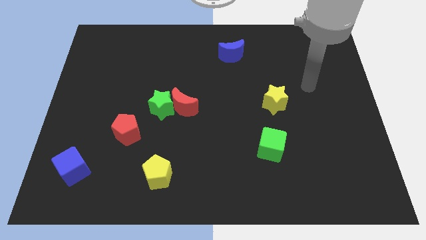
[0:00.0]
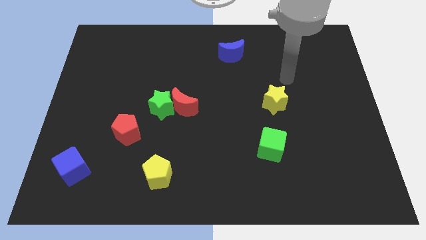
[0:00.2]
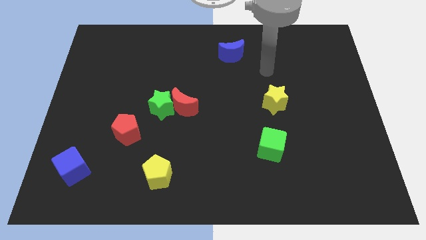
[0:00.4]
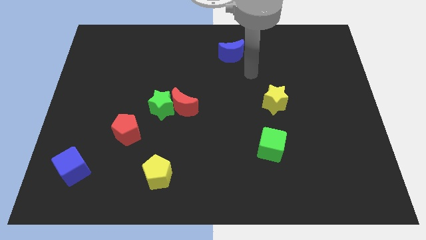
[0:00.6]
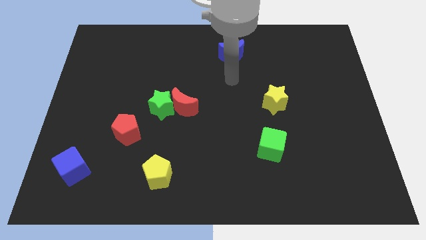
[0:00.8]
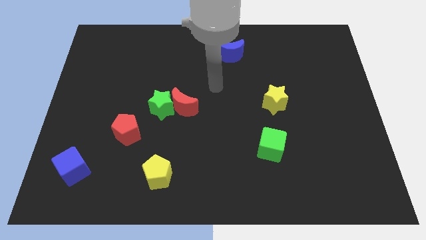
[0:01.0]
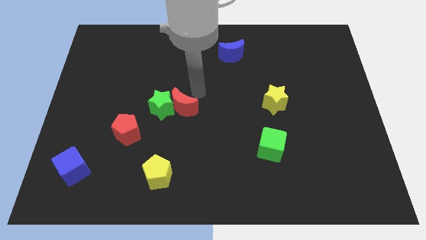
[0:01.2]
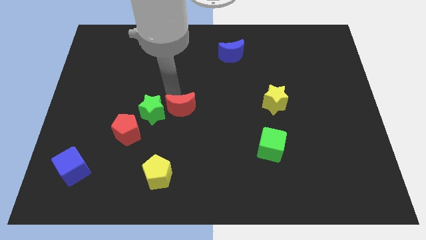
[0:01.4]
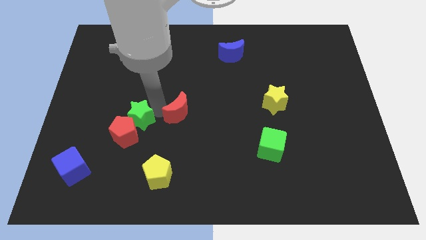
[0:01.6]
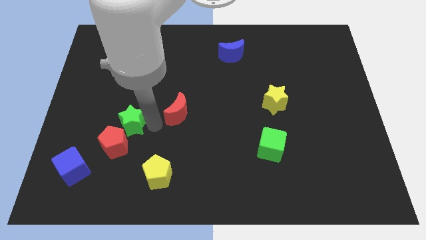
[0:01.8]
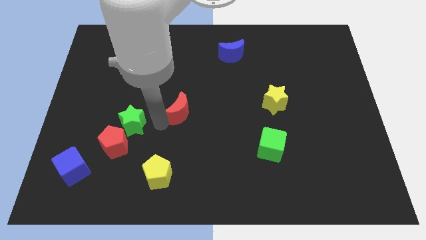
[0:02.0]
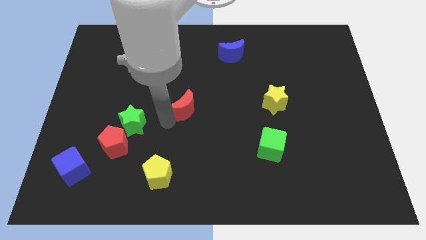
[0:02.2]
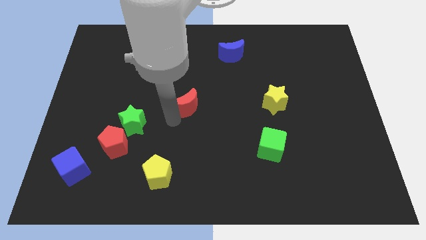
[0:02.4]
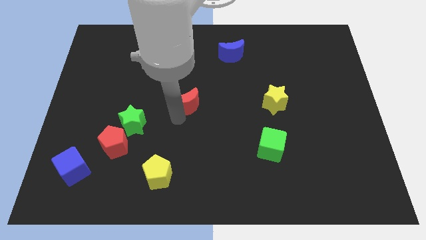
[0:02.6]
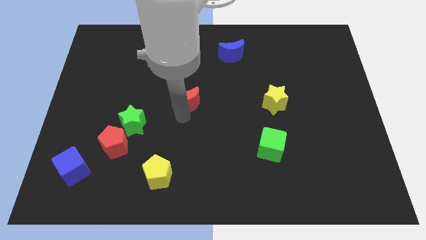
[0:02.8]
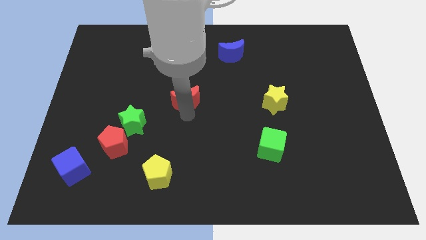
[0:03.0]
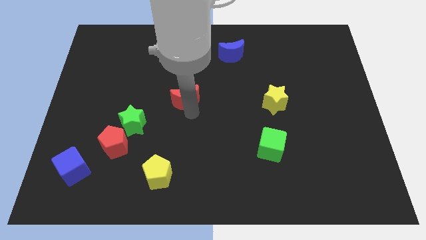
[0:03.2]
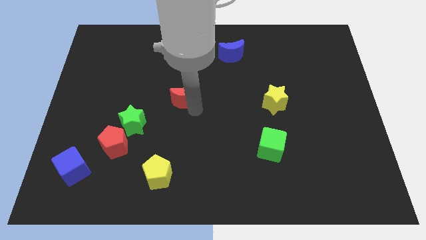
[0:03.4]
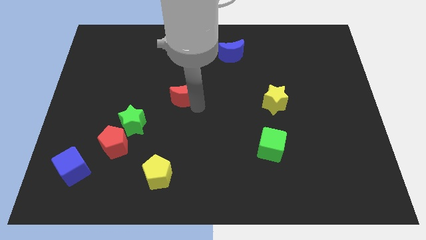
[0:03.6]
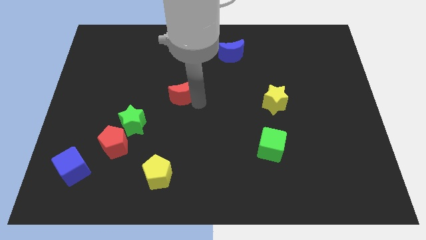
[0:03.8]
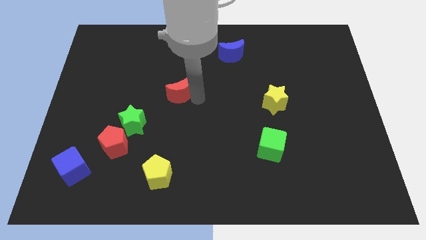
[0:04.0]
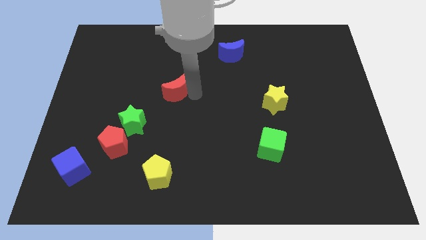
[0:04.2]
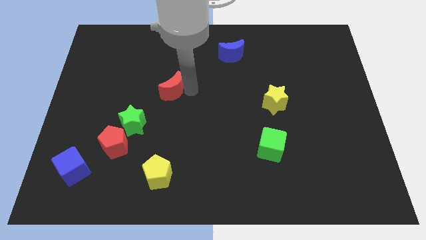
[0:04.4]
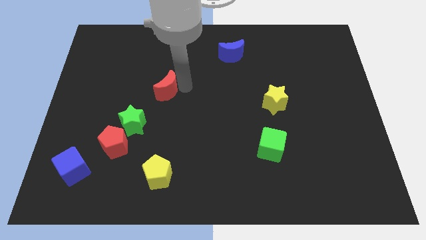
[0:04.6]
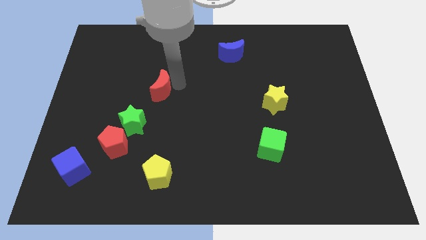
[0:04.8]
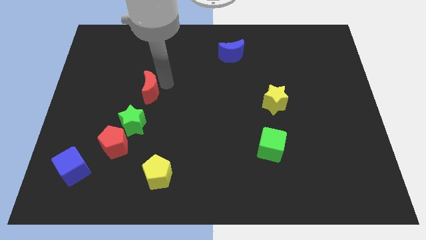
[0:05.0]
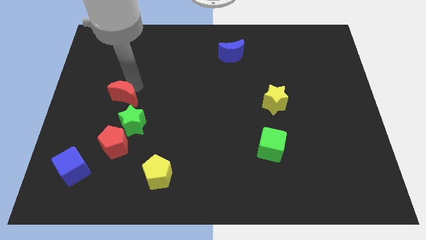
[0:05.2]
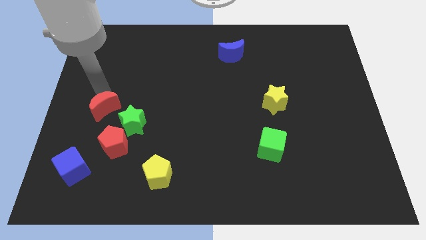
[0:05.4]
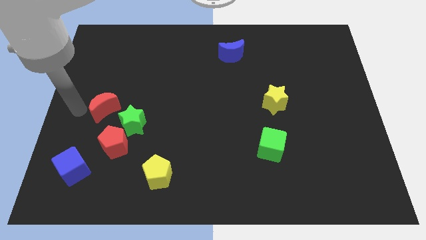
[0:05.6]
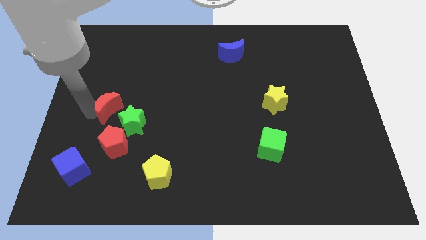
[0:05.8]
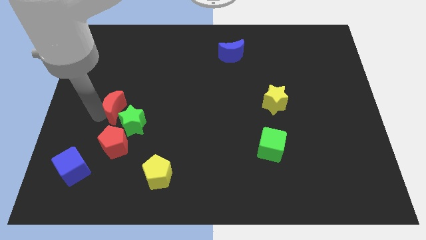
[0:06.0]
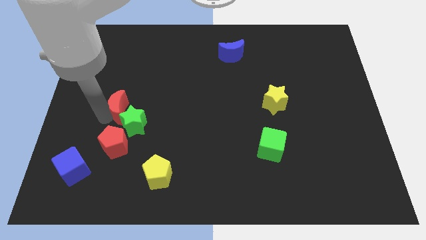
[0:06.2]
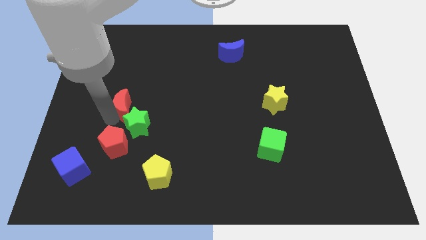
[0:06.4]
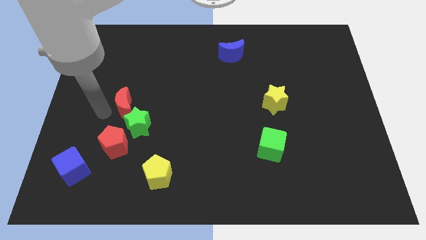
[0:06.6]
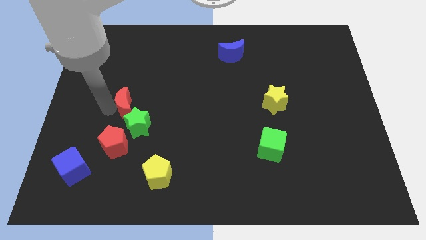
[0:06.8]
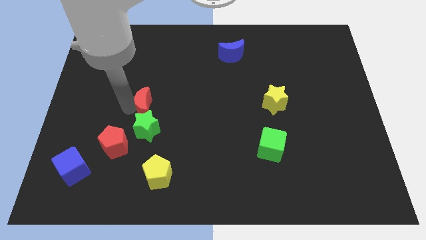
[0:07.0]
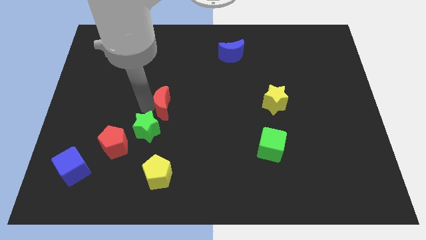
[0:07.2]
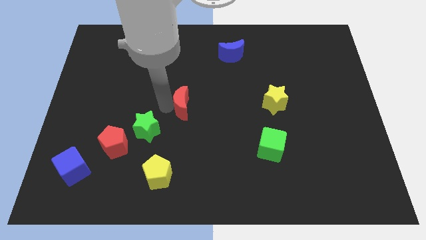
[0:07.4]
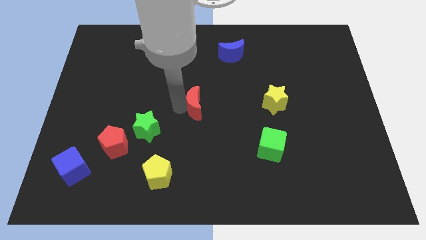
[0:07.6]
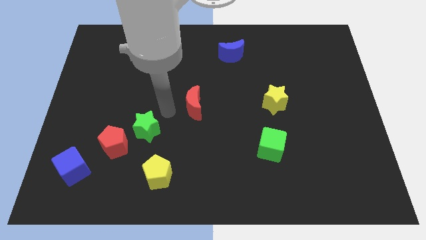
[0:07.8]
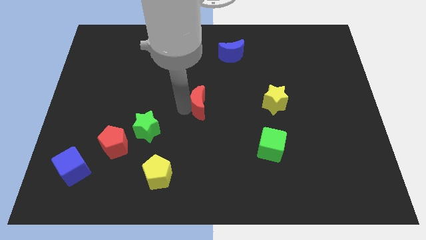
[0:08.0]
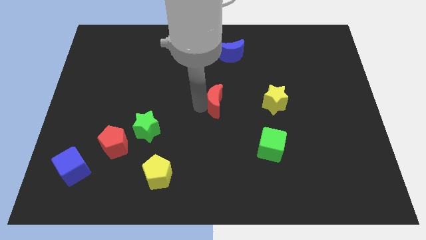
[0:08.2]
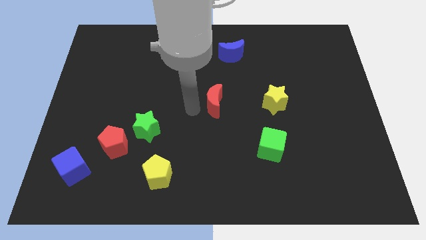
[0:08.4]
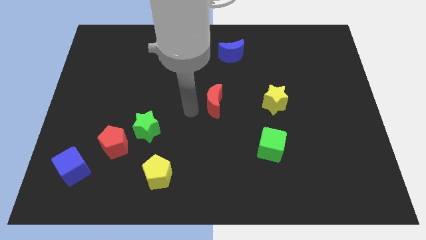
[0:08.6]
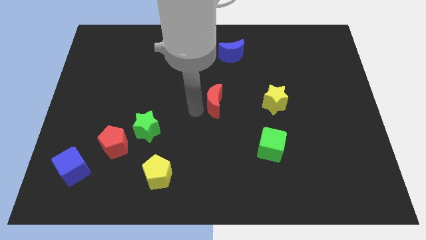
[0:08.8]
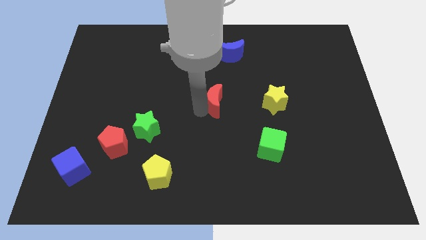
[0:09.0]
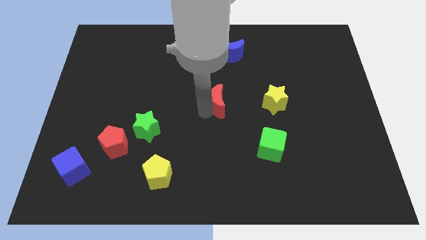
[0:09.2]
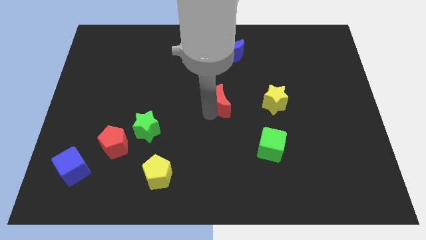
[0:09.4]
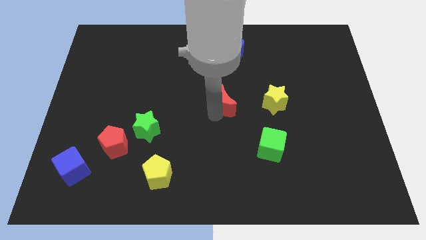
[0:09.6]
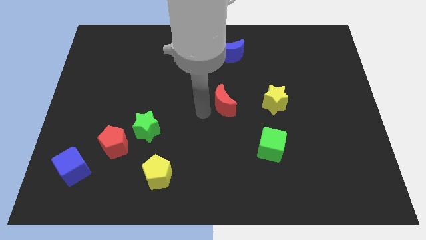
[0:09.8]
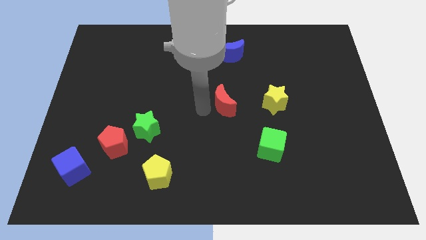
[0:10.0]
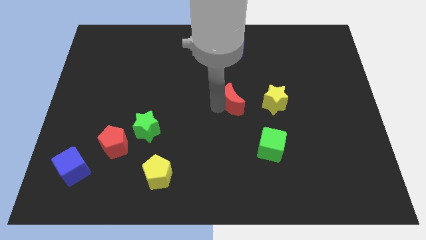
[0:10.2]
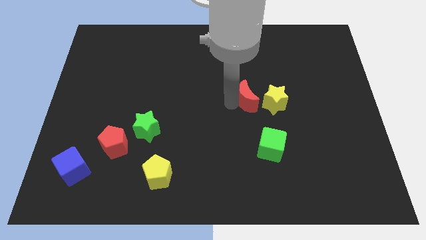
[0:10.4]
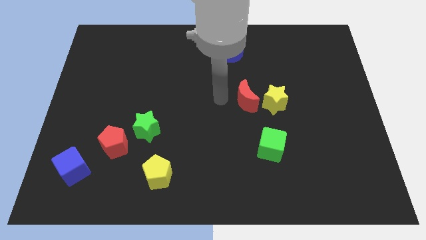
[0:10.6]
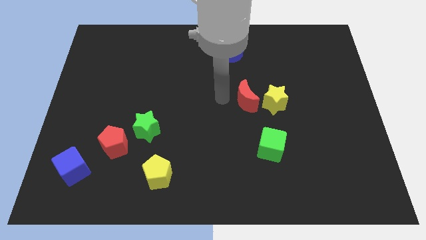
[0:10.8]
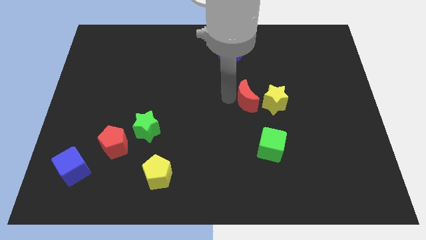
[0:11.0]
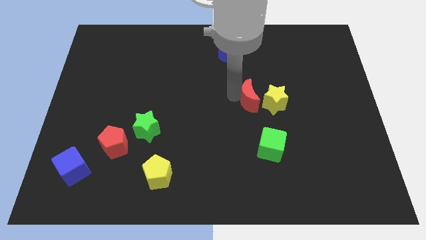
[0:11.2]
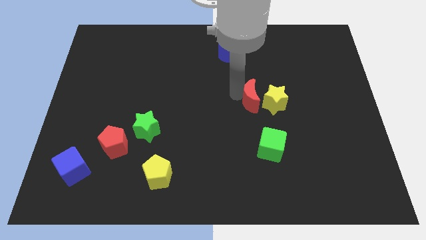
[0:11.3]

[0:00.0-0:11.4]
push the red moon close to the yellow star

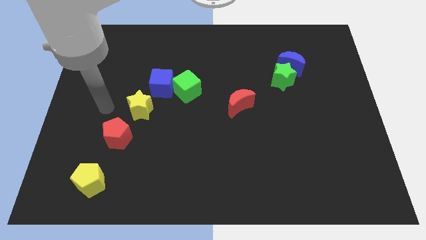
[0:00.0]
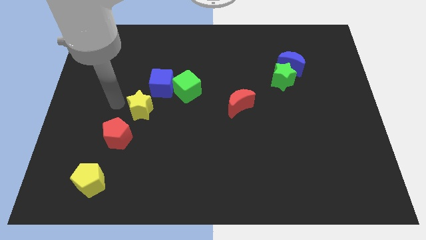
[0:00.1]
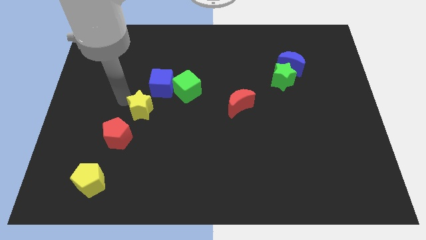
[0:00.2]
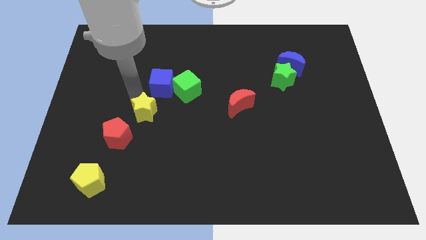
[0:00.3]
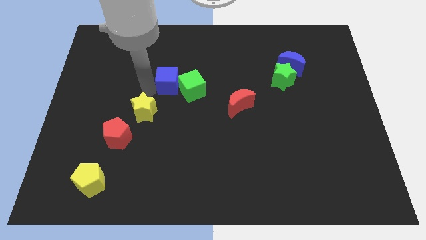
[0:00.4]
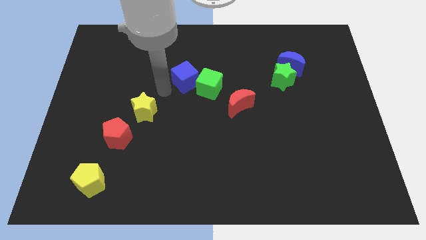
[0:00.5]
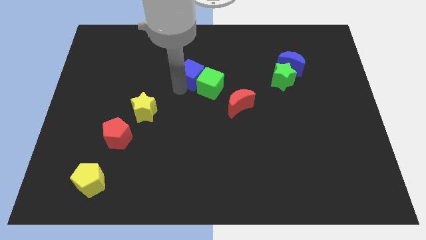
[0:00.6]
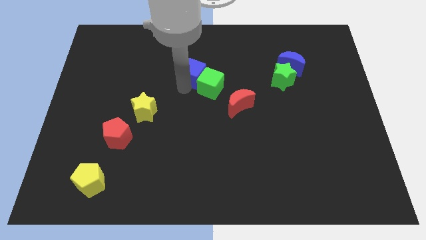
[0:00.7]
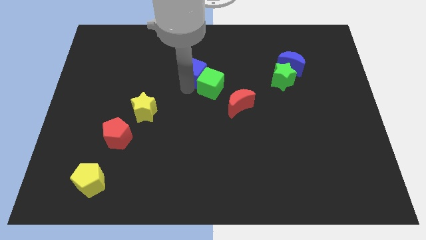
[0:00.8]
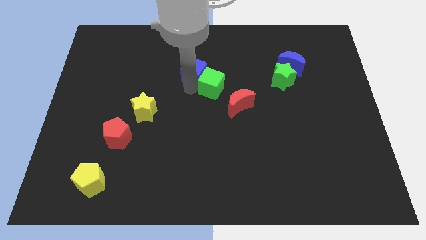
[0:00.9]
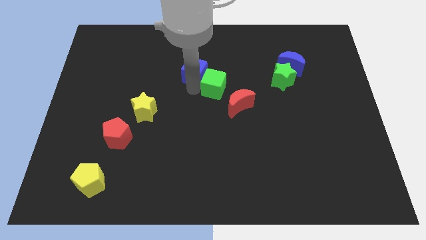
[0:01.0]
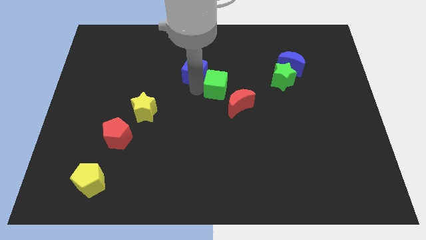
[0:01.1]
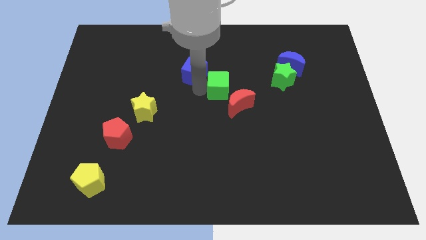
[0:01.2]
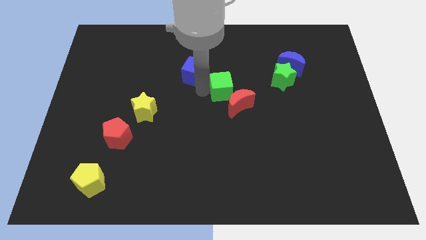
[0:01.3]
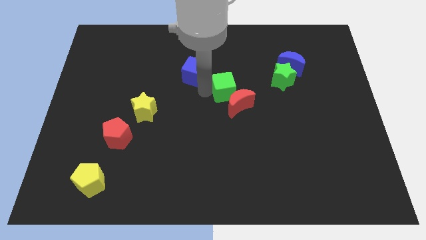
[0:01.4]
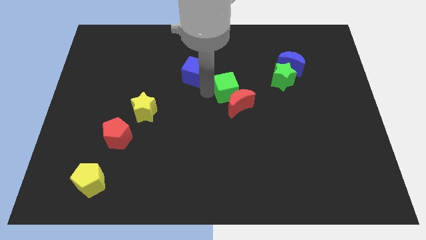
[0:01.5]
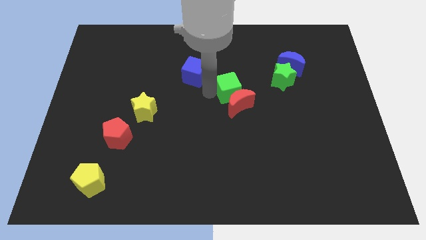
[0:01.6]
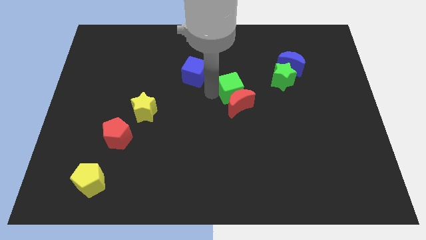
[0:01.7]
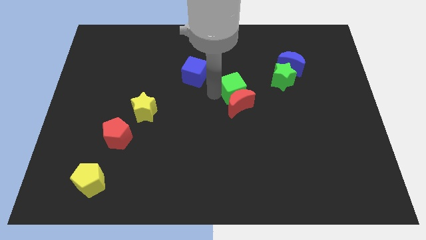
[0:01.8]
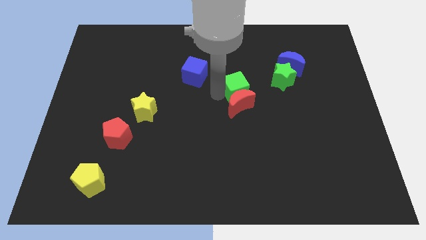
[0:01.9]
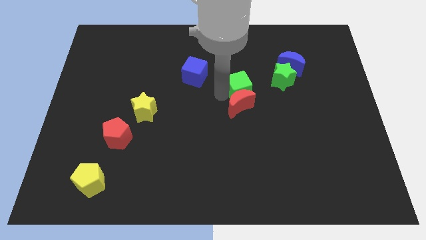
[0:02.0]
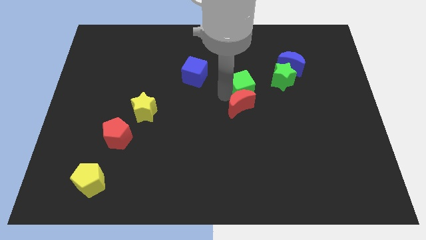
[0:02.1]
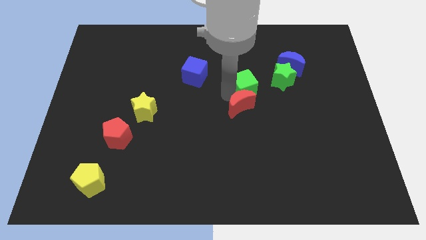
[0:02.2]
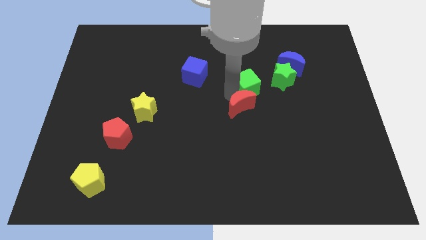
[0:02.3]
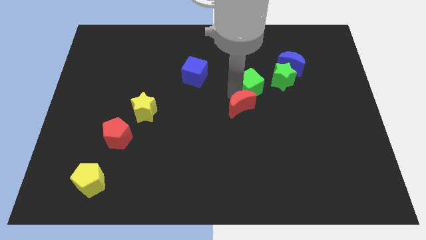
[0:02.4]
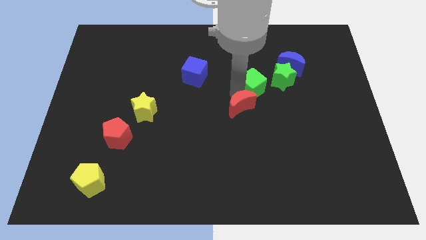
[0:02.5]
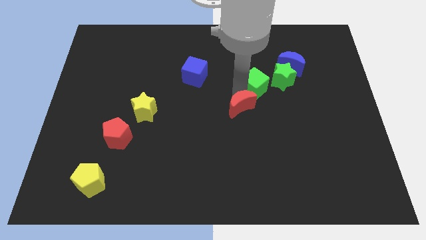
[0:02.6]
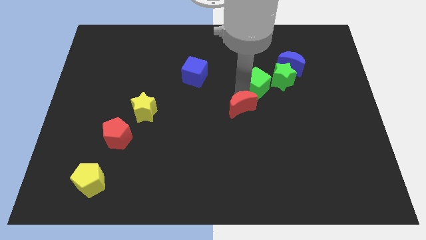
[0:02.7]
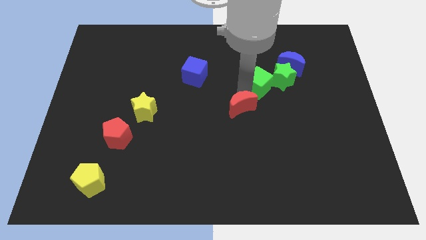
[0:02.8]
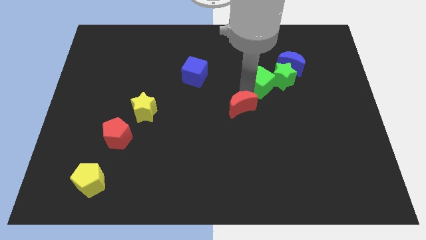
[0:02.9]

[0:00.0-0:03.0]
put the green cube next to the green star
